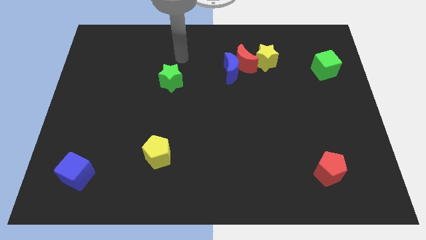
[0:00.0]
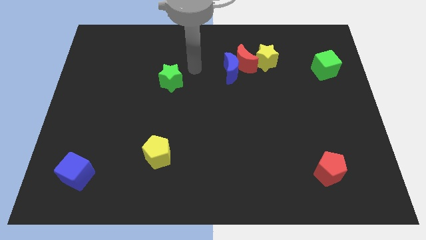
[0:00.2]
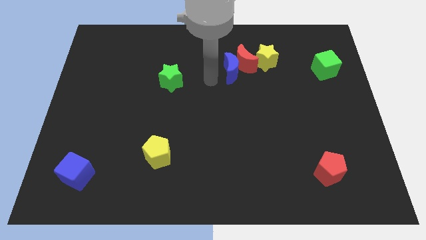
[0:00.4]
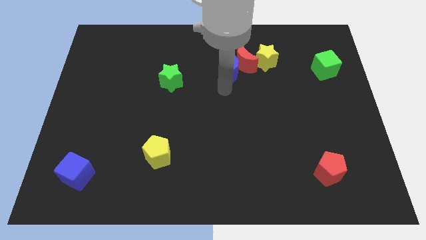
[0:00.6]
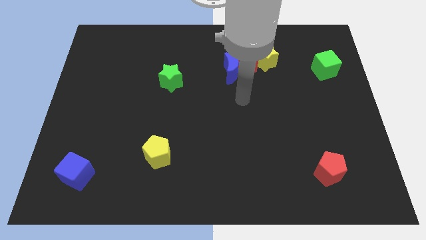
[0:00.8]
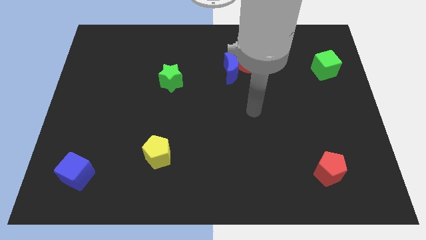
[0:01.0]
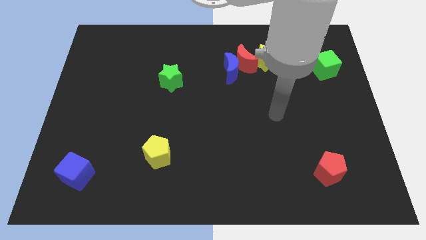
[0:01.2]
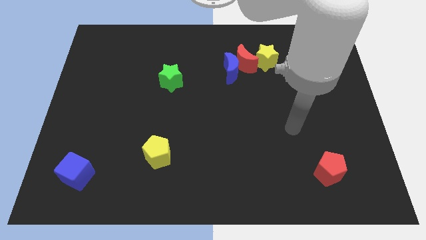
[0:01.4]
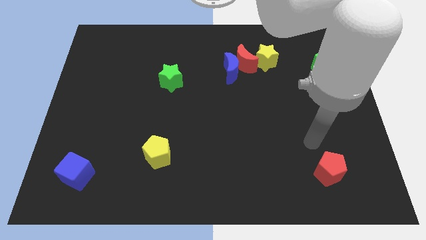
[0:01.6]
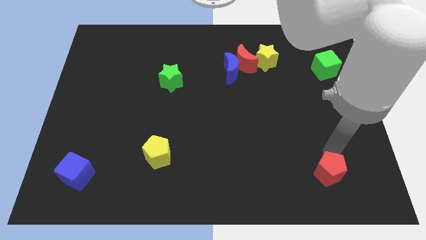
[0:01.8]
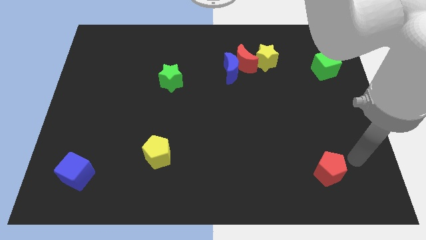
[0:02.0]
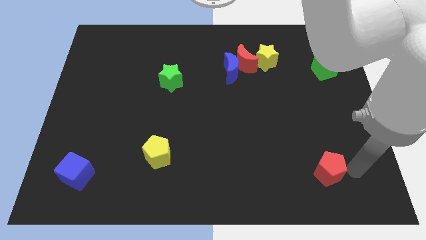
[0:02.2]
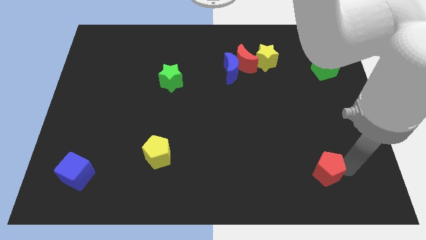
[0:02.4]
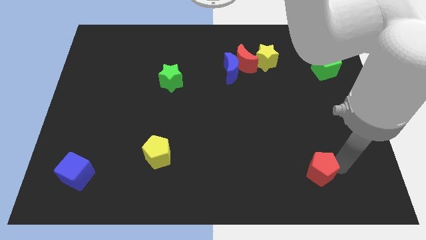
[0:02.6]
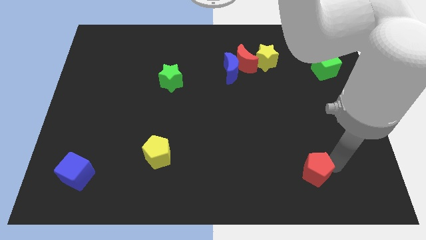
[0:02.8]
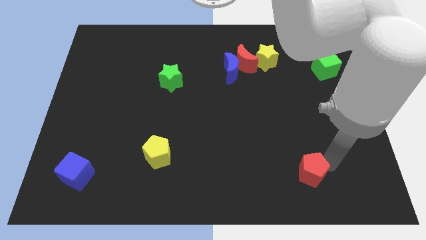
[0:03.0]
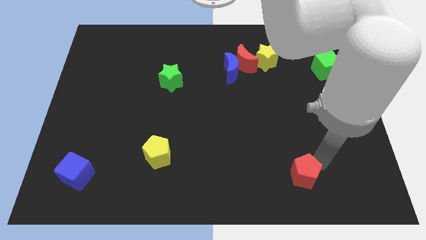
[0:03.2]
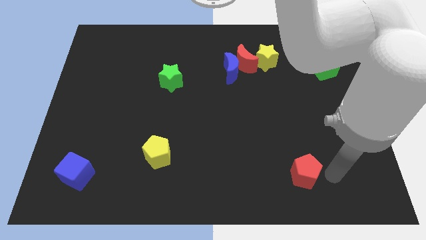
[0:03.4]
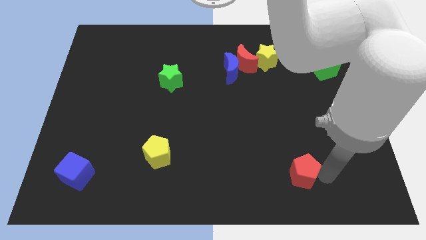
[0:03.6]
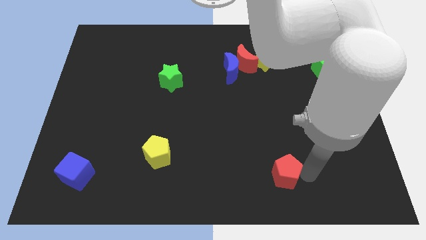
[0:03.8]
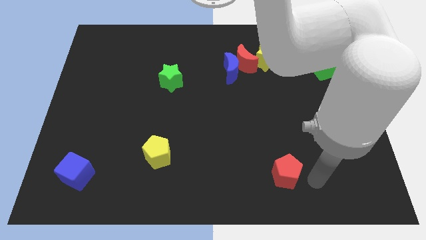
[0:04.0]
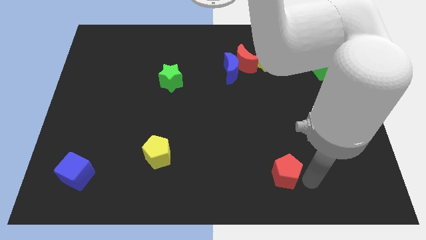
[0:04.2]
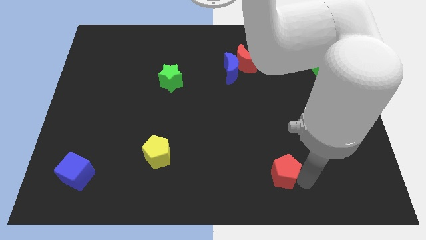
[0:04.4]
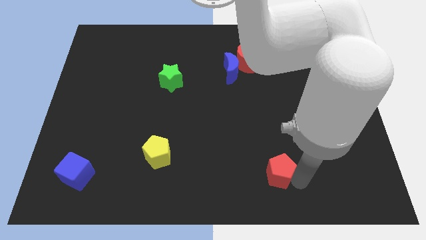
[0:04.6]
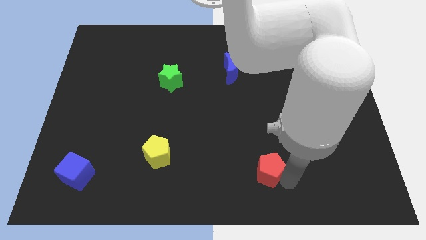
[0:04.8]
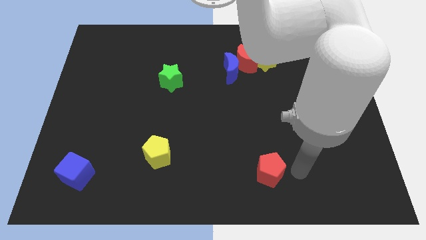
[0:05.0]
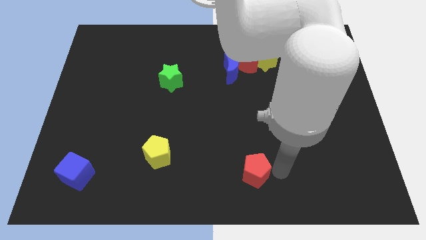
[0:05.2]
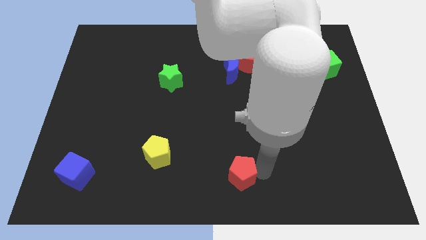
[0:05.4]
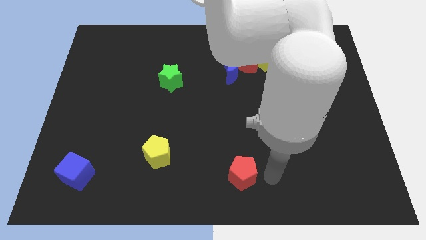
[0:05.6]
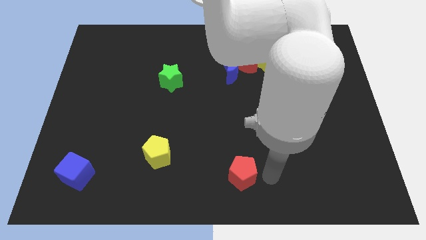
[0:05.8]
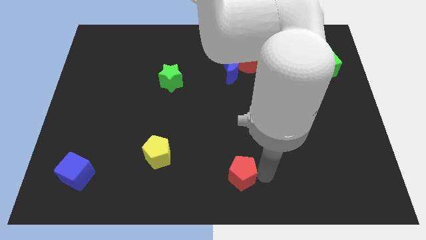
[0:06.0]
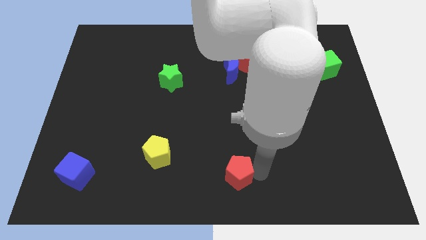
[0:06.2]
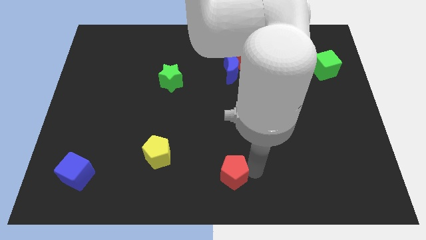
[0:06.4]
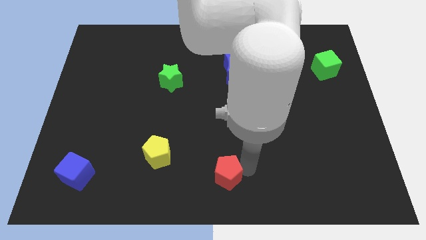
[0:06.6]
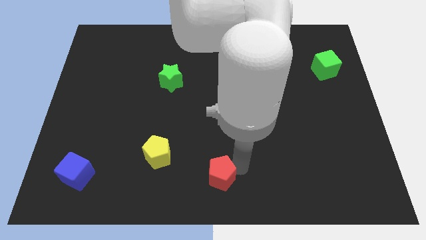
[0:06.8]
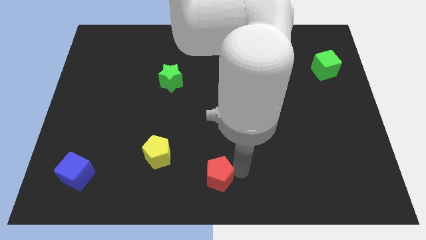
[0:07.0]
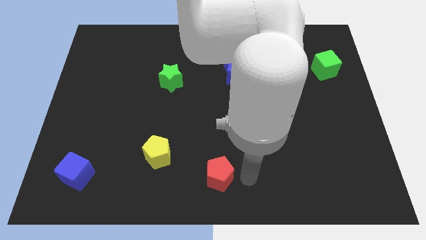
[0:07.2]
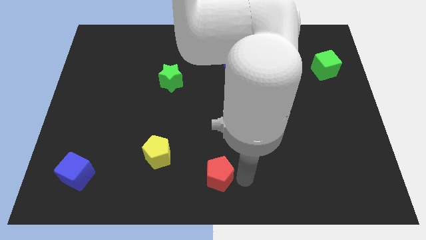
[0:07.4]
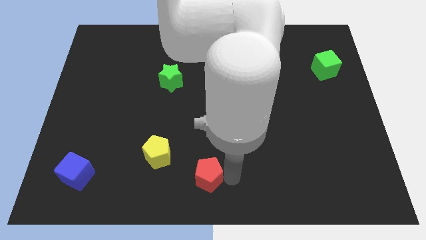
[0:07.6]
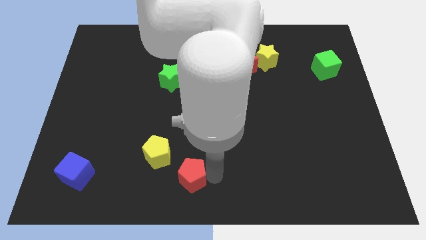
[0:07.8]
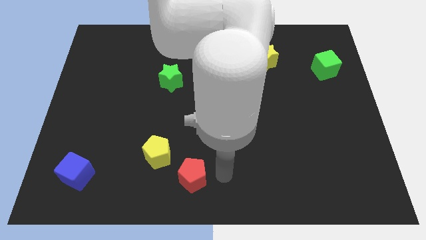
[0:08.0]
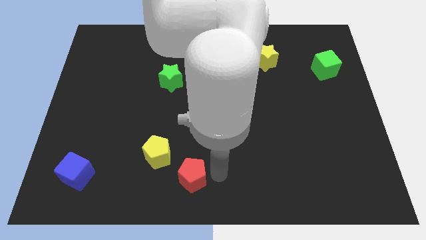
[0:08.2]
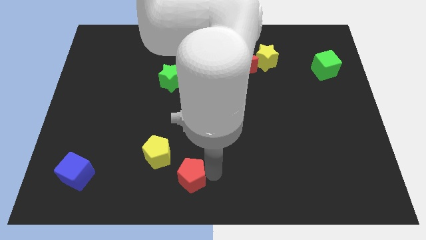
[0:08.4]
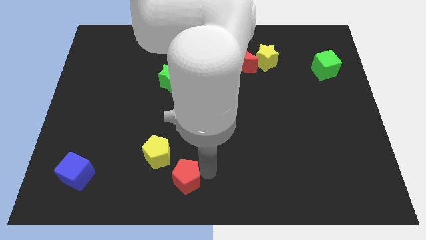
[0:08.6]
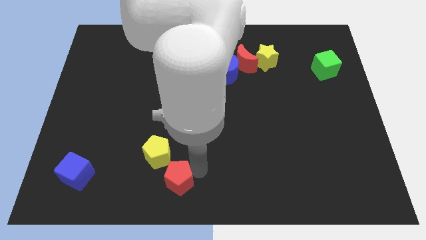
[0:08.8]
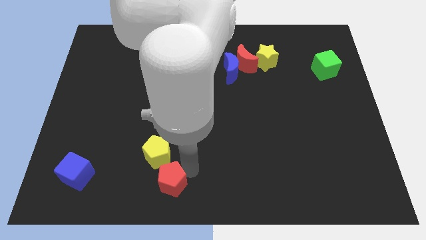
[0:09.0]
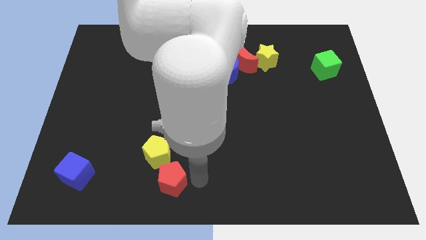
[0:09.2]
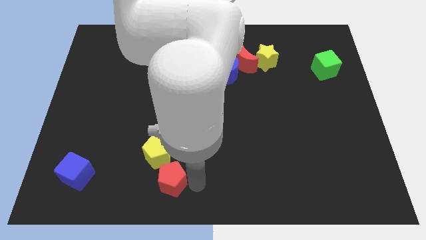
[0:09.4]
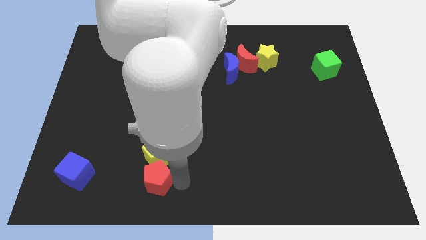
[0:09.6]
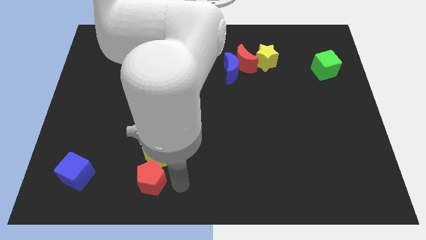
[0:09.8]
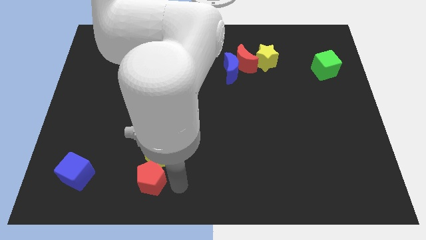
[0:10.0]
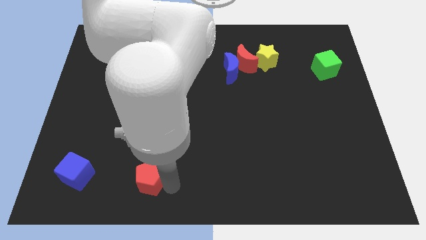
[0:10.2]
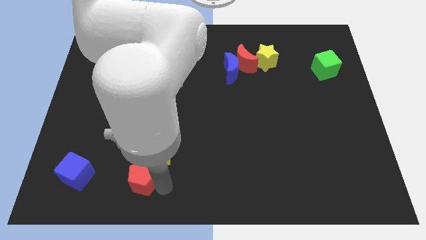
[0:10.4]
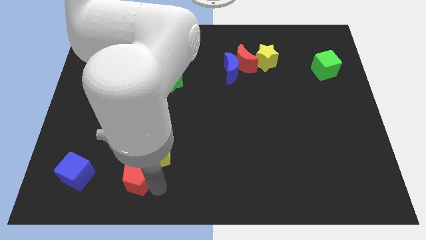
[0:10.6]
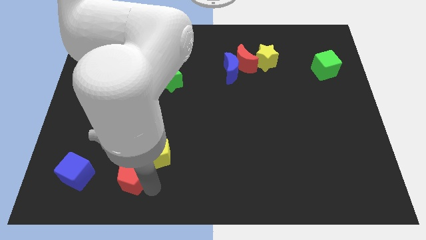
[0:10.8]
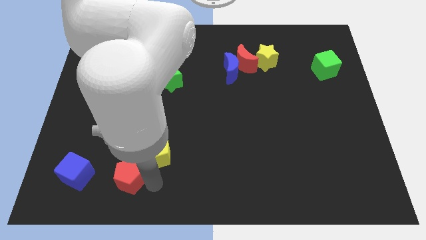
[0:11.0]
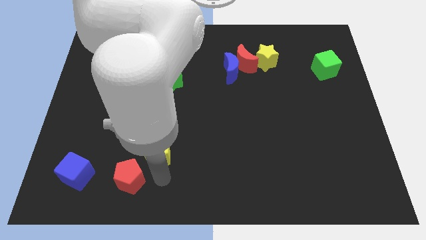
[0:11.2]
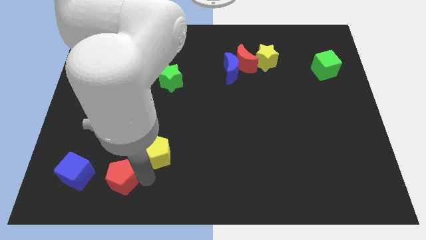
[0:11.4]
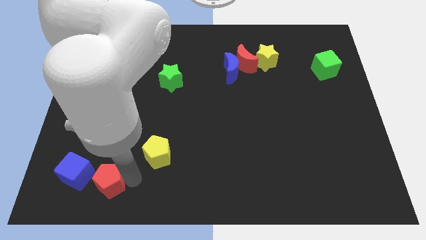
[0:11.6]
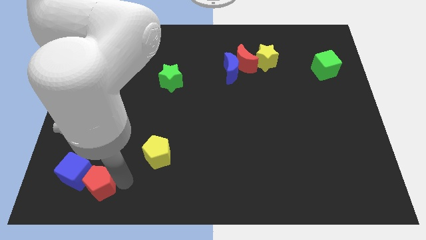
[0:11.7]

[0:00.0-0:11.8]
put the red pentagon next to the blue cube

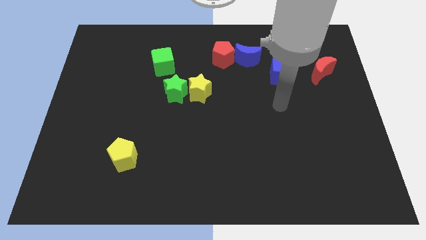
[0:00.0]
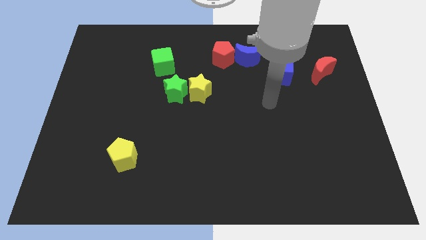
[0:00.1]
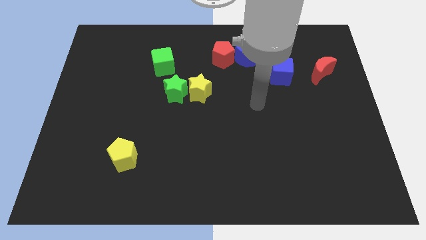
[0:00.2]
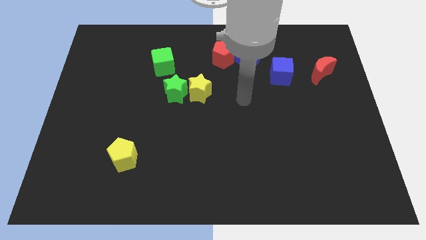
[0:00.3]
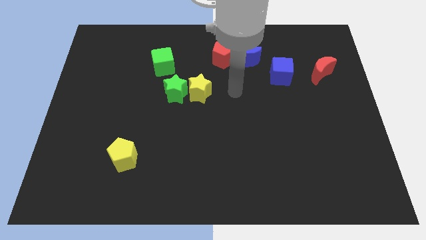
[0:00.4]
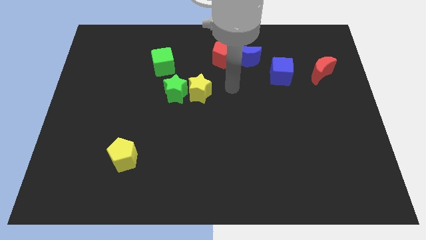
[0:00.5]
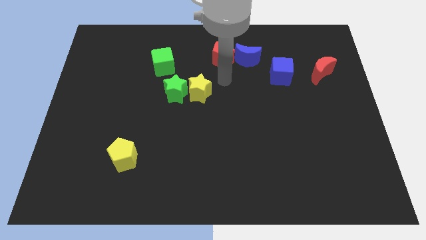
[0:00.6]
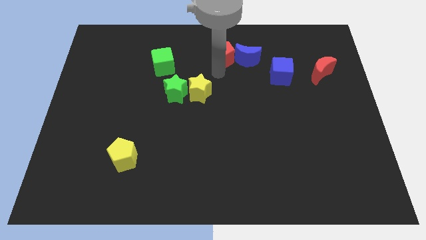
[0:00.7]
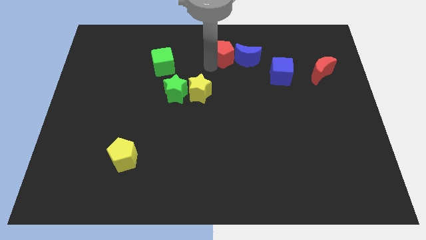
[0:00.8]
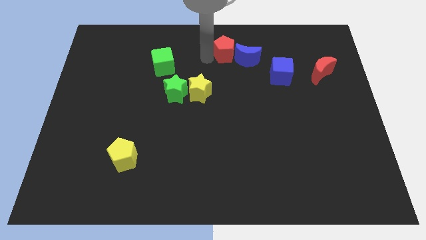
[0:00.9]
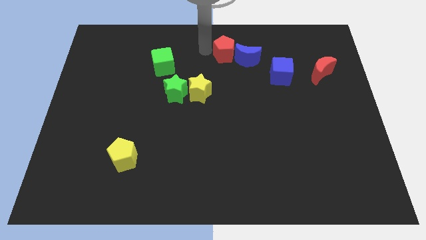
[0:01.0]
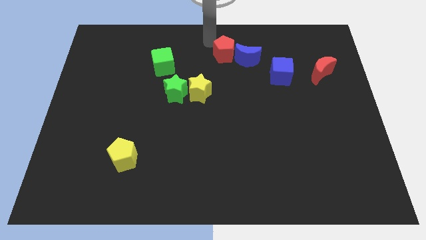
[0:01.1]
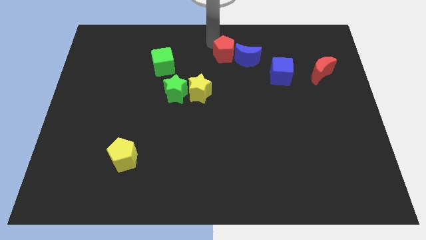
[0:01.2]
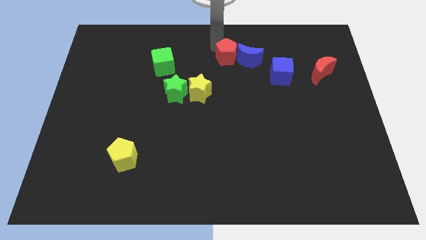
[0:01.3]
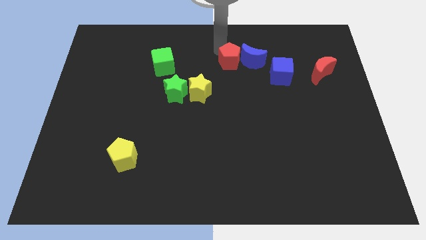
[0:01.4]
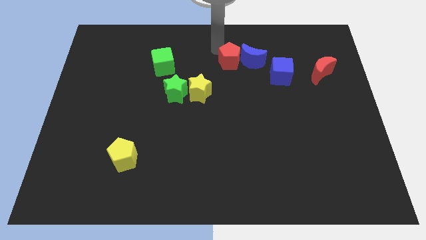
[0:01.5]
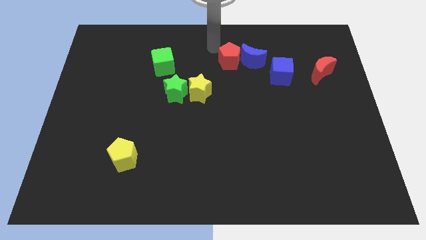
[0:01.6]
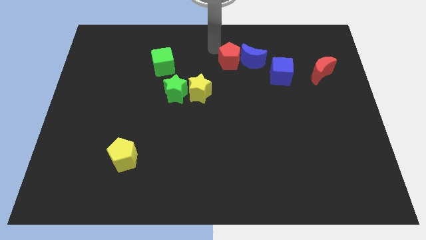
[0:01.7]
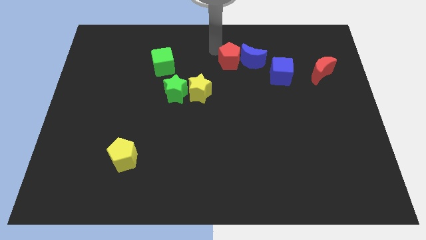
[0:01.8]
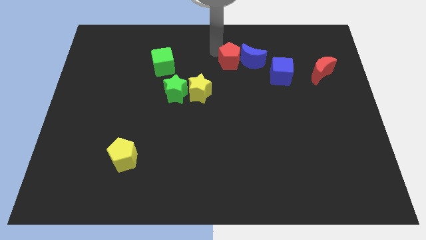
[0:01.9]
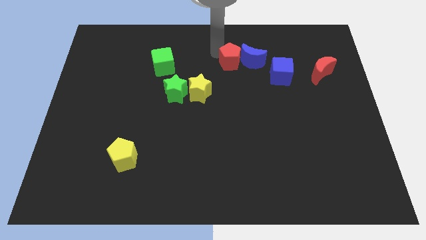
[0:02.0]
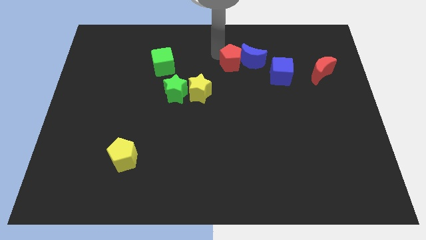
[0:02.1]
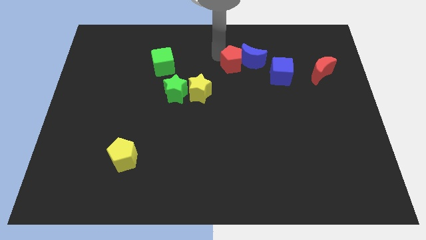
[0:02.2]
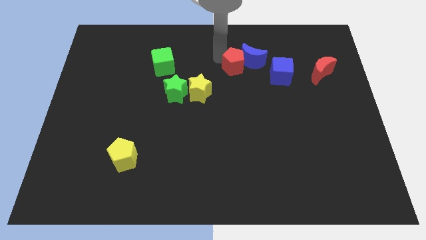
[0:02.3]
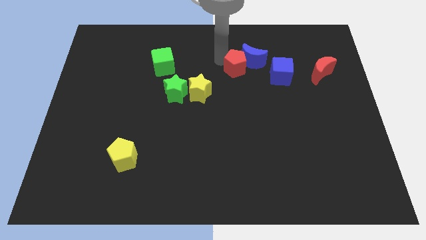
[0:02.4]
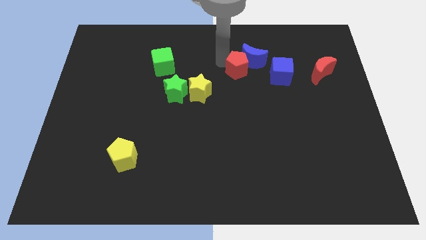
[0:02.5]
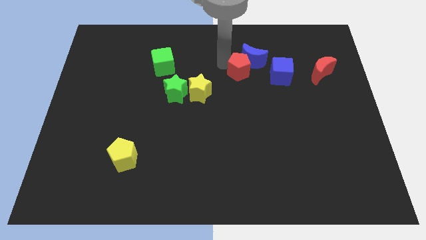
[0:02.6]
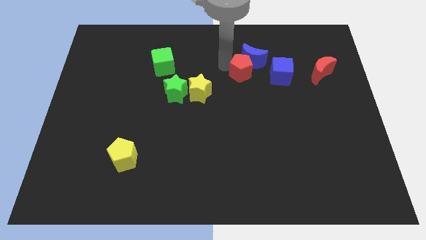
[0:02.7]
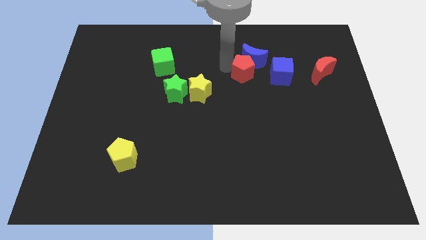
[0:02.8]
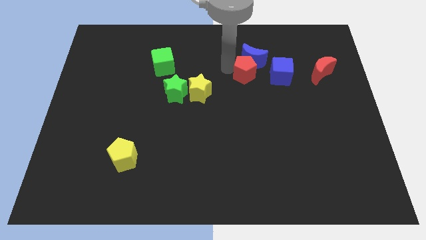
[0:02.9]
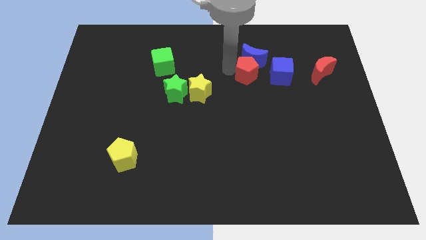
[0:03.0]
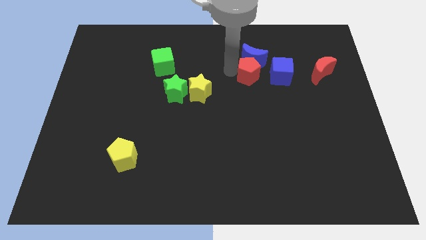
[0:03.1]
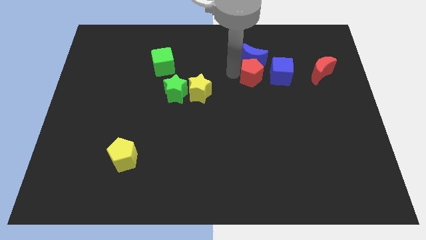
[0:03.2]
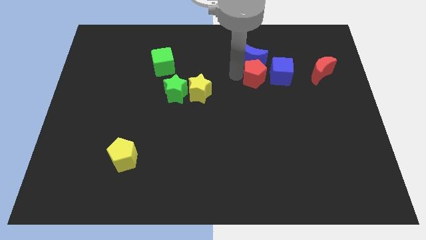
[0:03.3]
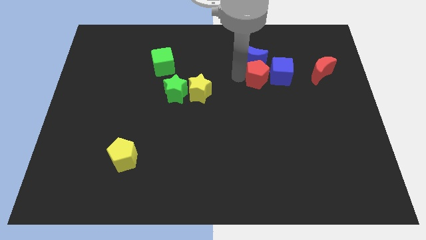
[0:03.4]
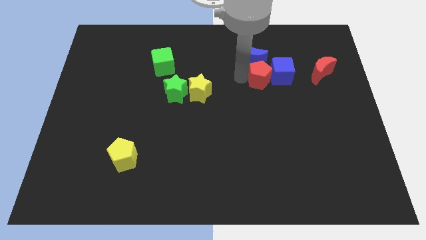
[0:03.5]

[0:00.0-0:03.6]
put the red pentagon to the blue cube
